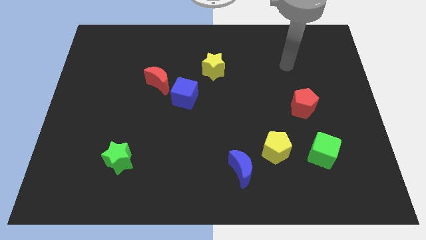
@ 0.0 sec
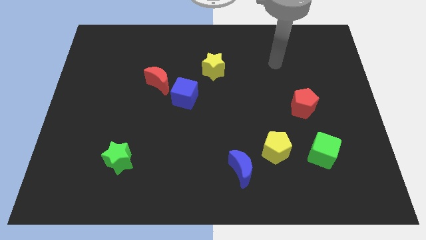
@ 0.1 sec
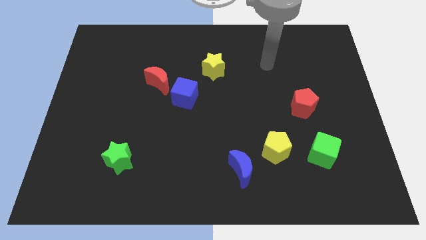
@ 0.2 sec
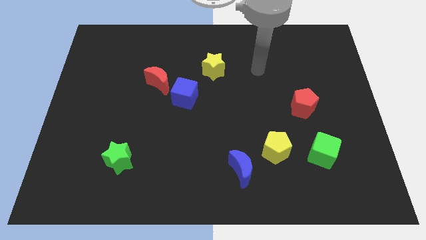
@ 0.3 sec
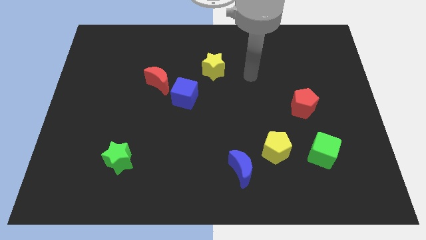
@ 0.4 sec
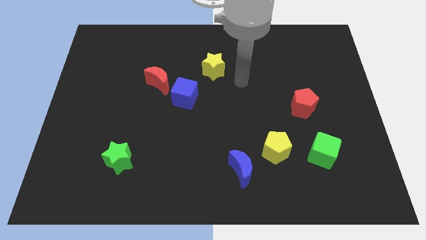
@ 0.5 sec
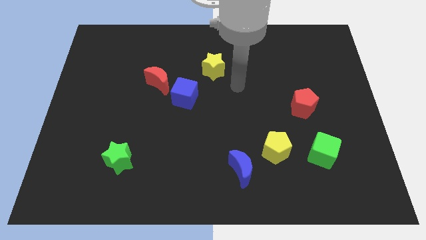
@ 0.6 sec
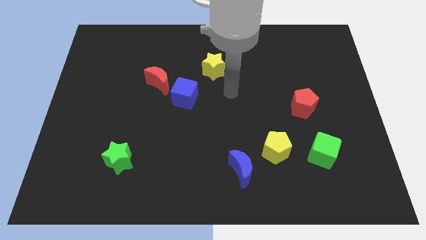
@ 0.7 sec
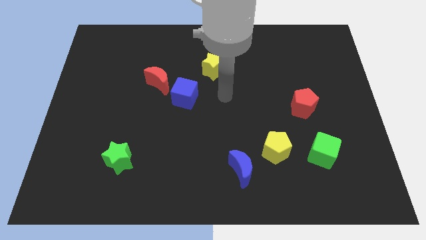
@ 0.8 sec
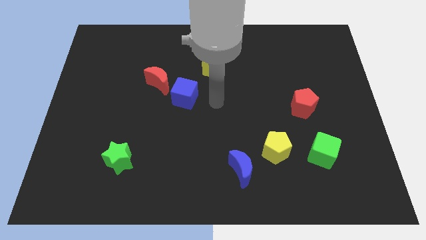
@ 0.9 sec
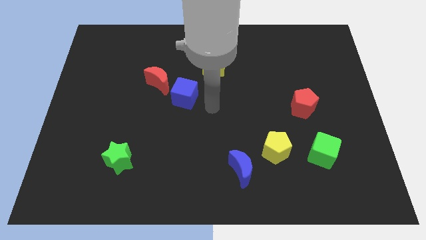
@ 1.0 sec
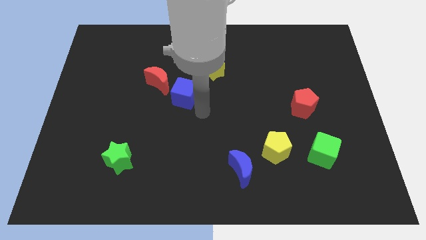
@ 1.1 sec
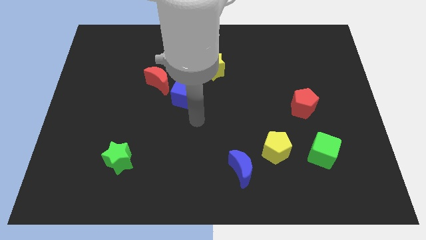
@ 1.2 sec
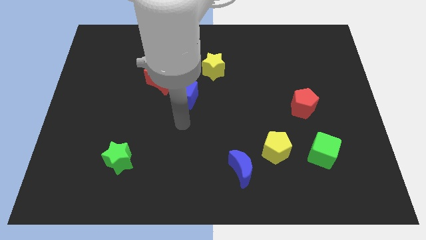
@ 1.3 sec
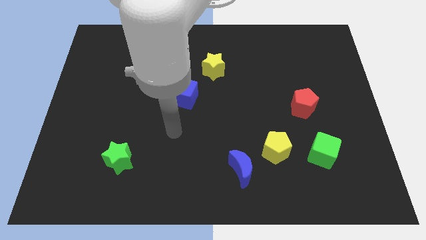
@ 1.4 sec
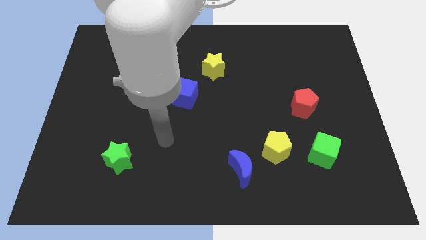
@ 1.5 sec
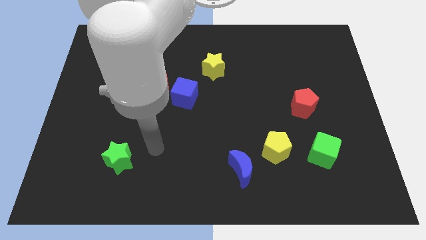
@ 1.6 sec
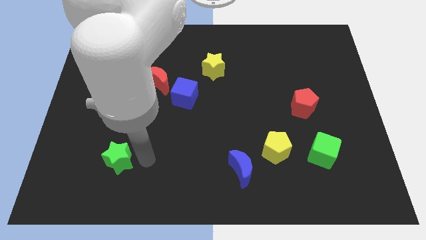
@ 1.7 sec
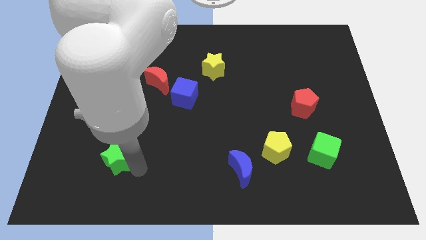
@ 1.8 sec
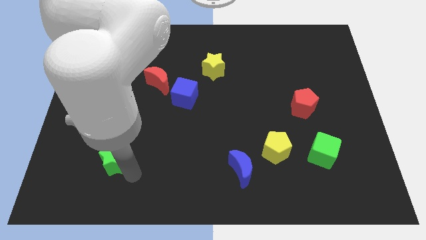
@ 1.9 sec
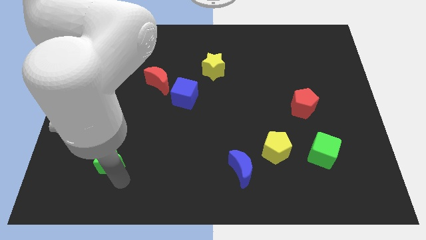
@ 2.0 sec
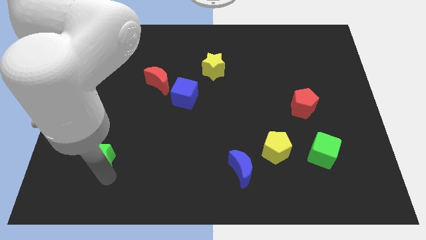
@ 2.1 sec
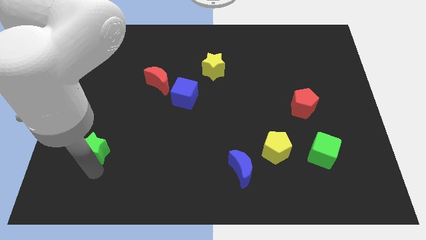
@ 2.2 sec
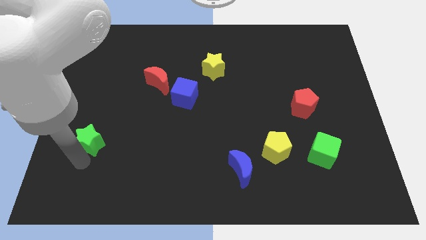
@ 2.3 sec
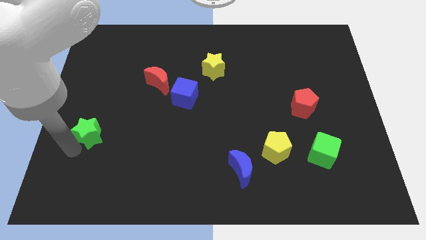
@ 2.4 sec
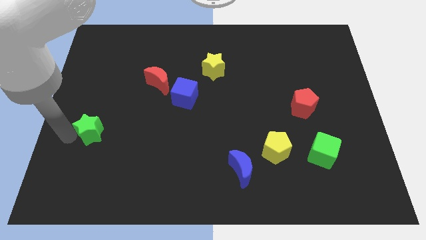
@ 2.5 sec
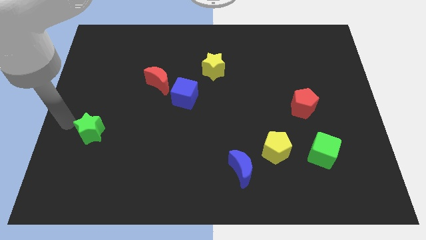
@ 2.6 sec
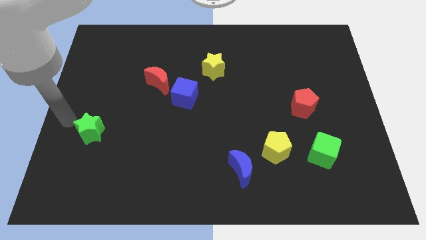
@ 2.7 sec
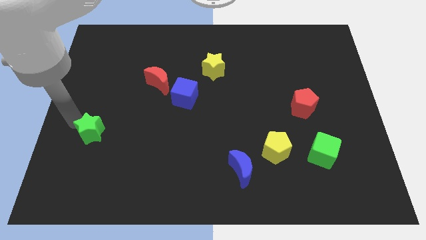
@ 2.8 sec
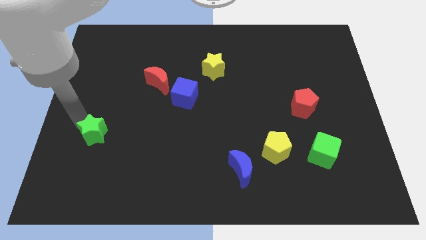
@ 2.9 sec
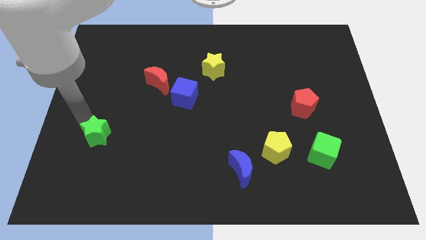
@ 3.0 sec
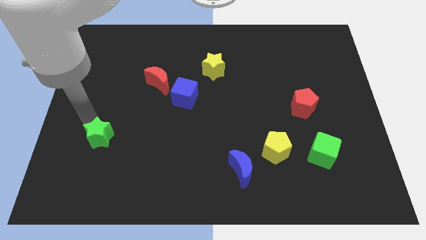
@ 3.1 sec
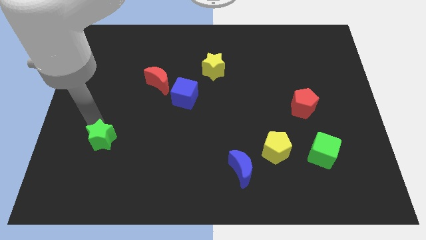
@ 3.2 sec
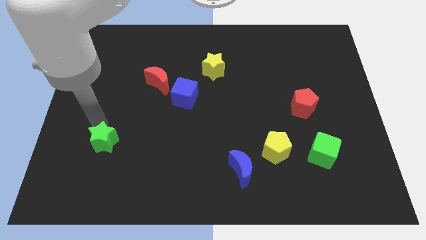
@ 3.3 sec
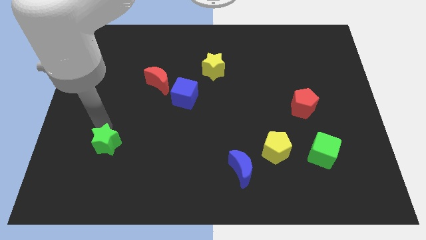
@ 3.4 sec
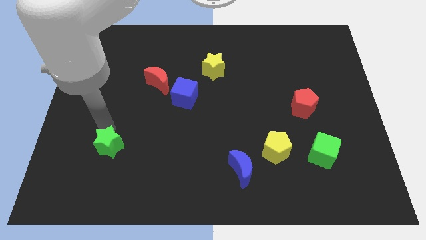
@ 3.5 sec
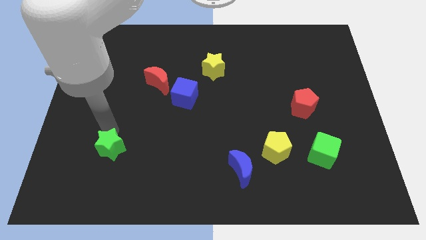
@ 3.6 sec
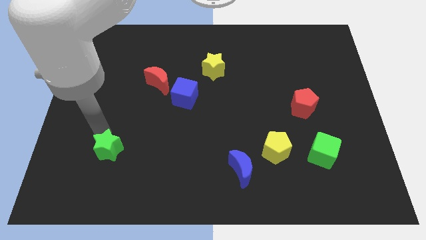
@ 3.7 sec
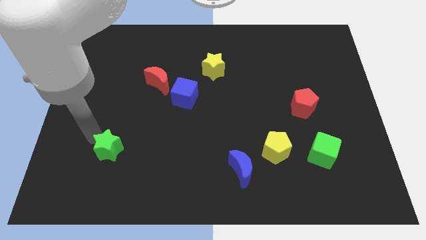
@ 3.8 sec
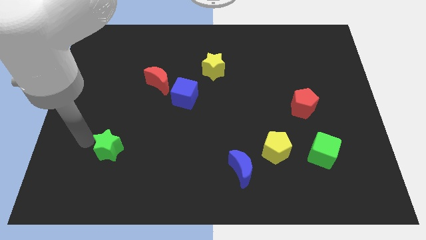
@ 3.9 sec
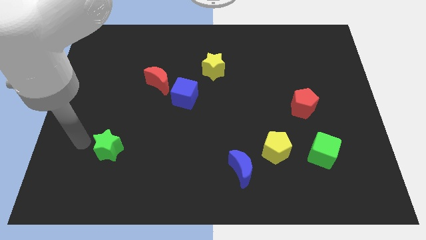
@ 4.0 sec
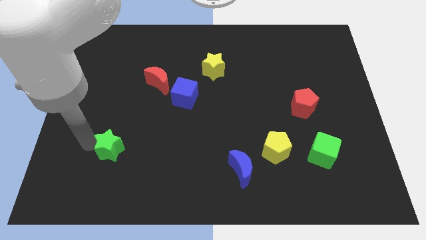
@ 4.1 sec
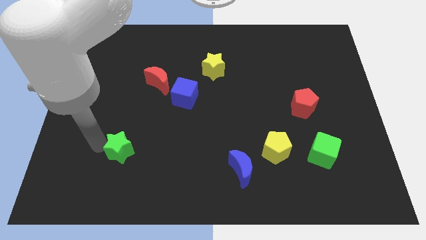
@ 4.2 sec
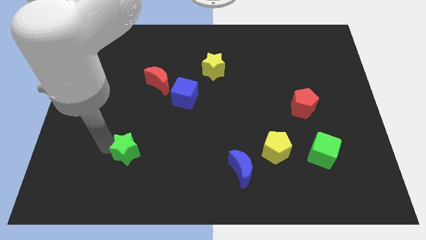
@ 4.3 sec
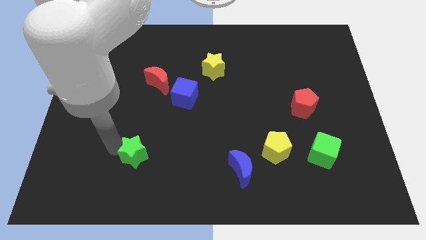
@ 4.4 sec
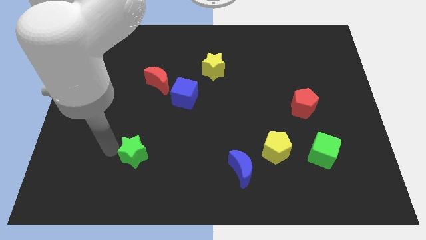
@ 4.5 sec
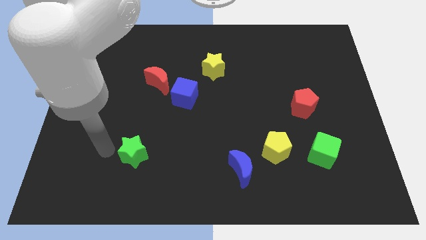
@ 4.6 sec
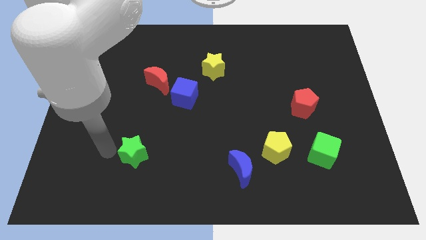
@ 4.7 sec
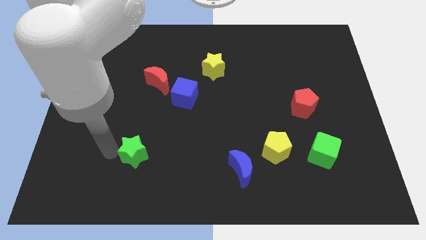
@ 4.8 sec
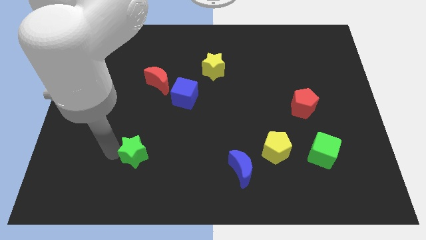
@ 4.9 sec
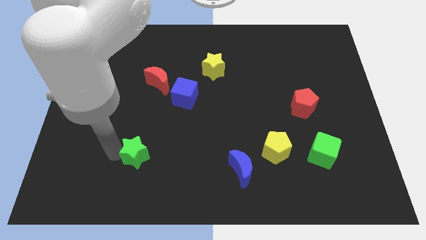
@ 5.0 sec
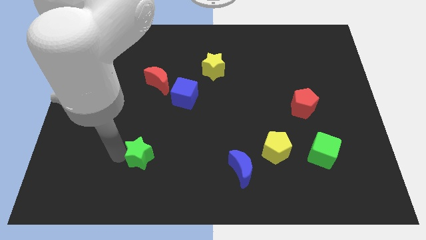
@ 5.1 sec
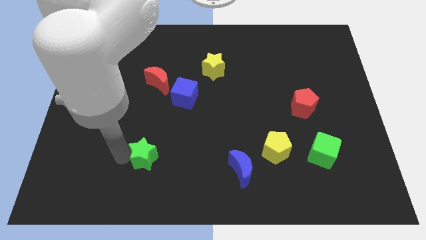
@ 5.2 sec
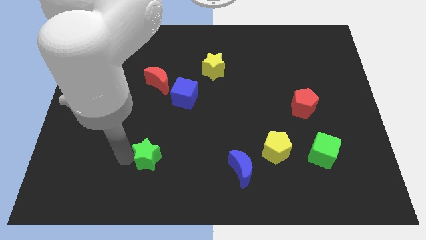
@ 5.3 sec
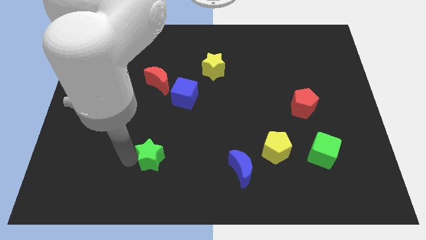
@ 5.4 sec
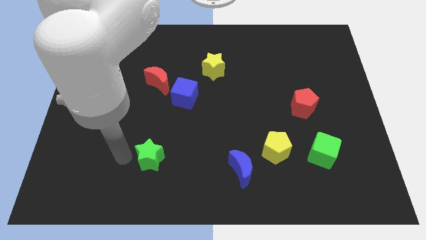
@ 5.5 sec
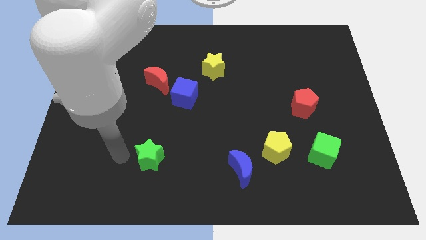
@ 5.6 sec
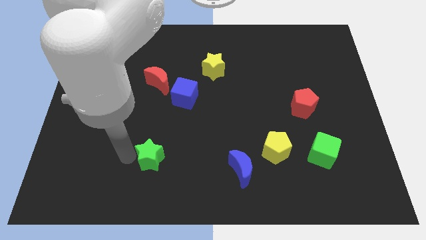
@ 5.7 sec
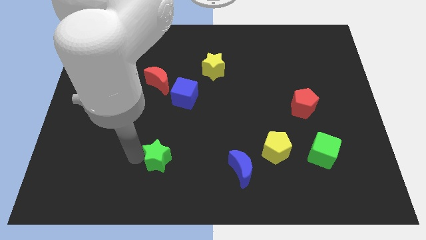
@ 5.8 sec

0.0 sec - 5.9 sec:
push the green star a bit to the right

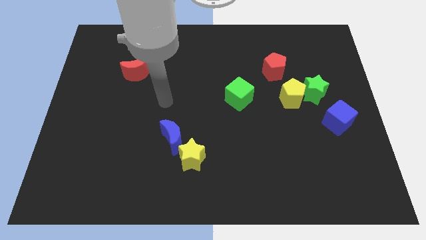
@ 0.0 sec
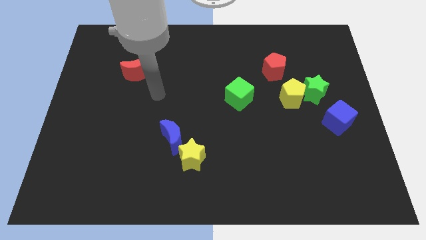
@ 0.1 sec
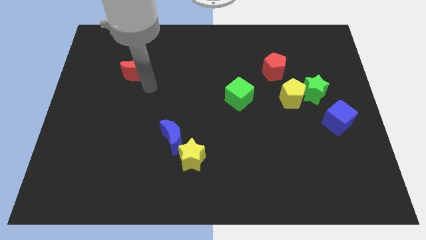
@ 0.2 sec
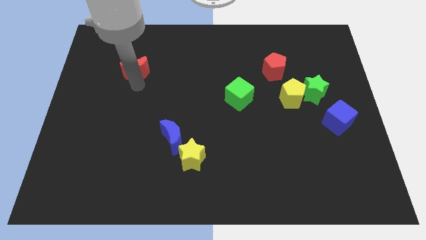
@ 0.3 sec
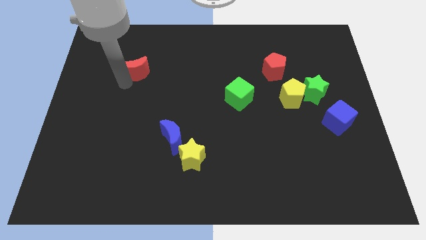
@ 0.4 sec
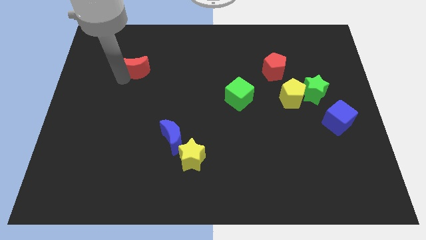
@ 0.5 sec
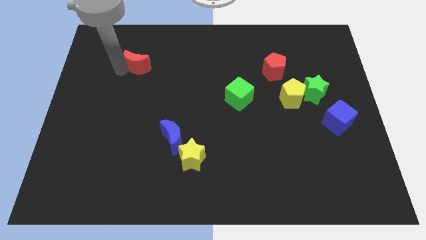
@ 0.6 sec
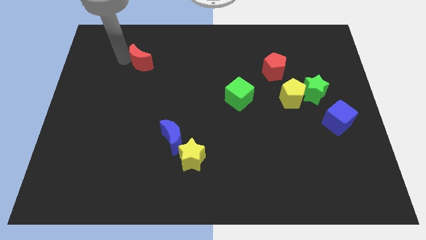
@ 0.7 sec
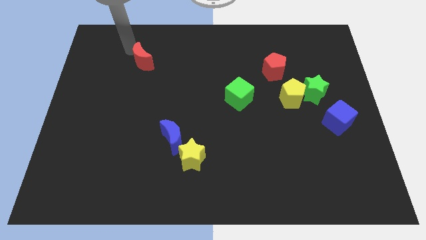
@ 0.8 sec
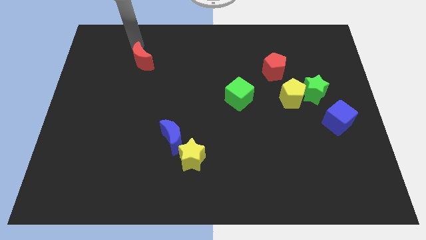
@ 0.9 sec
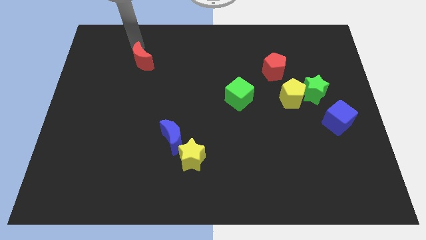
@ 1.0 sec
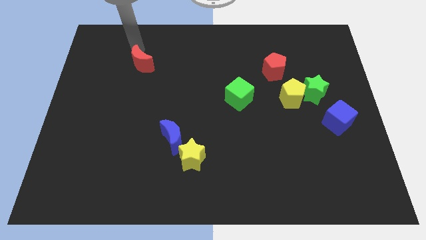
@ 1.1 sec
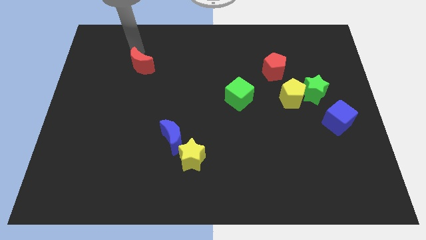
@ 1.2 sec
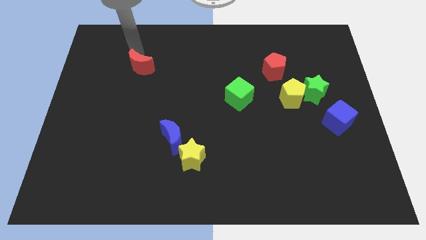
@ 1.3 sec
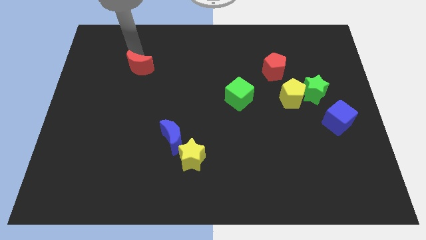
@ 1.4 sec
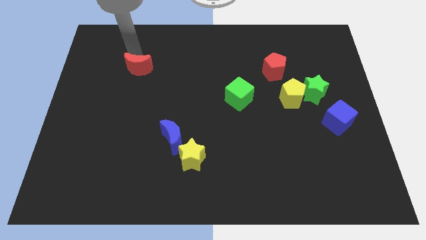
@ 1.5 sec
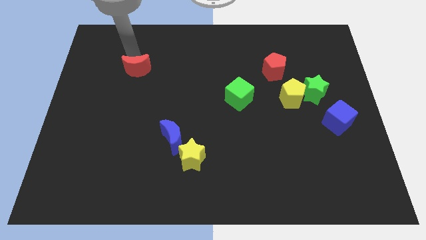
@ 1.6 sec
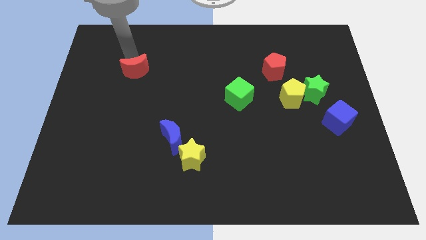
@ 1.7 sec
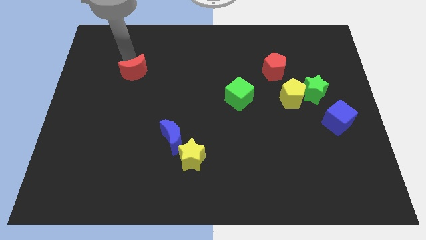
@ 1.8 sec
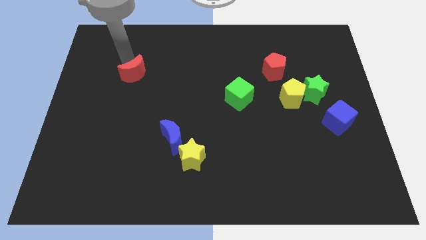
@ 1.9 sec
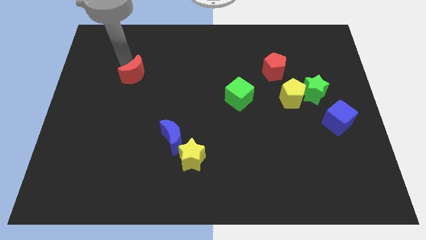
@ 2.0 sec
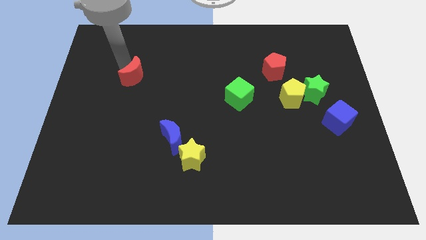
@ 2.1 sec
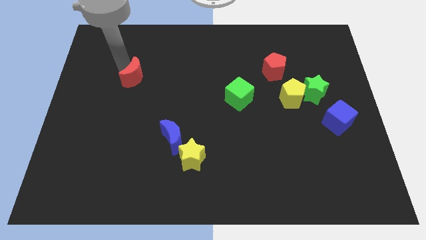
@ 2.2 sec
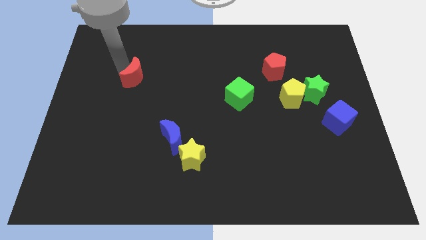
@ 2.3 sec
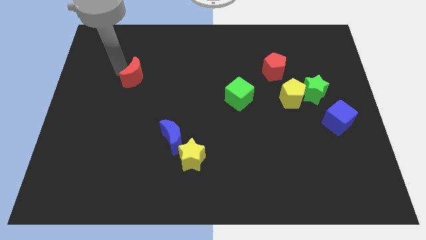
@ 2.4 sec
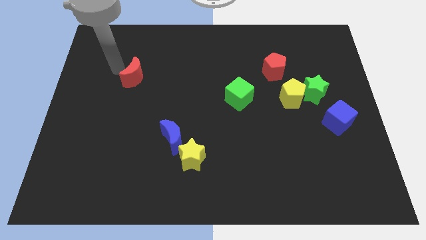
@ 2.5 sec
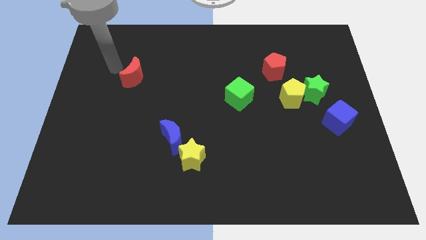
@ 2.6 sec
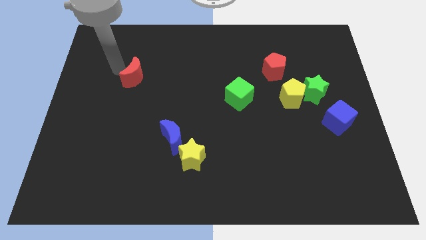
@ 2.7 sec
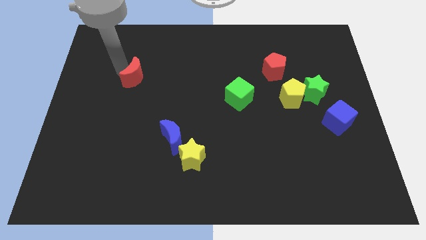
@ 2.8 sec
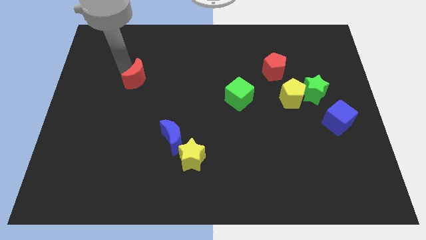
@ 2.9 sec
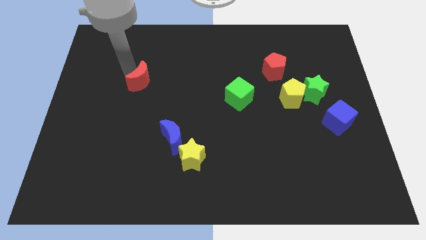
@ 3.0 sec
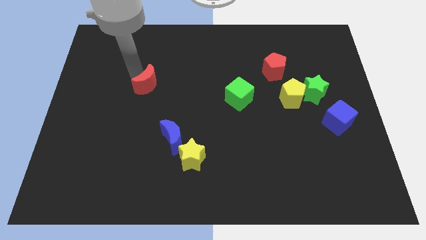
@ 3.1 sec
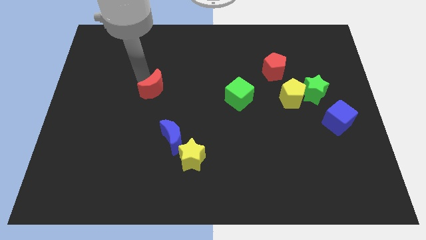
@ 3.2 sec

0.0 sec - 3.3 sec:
slightly push the red moon down and then right
